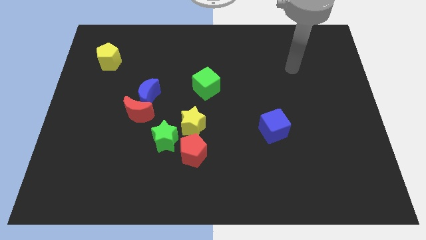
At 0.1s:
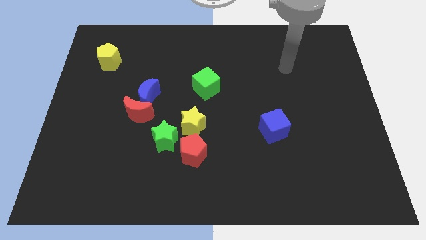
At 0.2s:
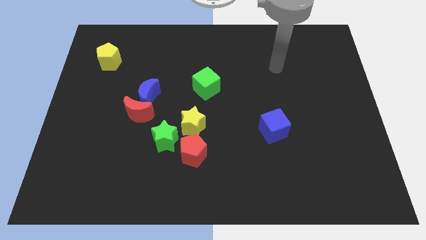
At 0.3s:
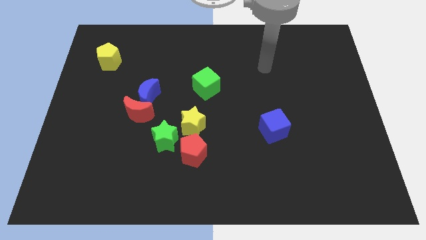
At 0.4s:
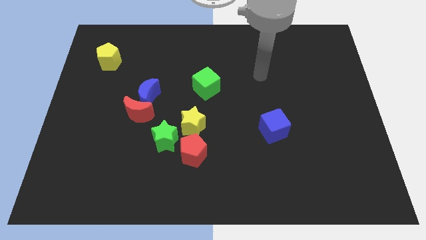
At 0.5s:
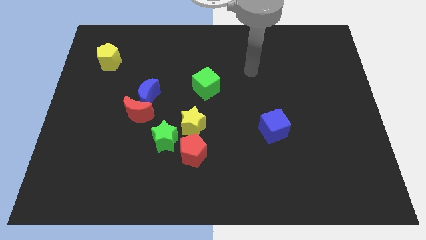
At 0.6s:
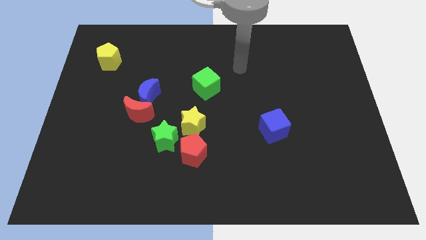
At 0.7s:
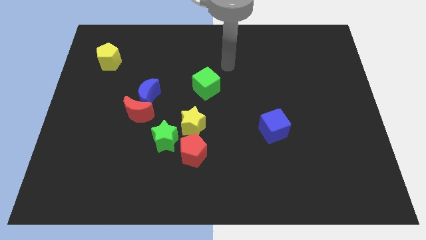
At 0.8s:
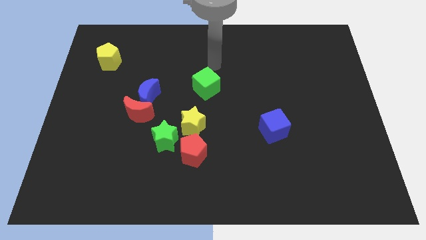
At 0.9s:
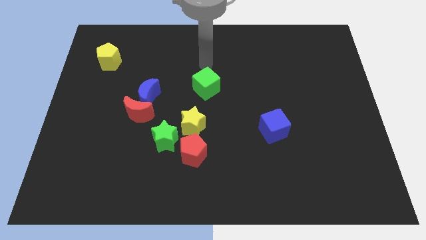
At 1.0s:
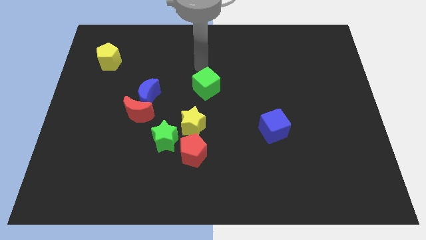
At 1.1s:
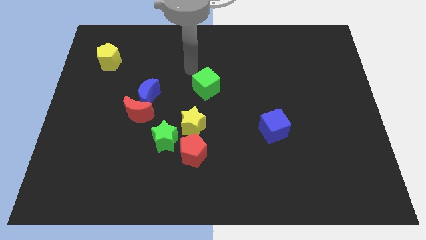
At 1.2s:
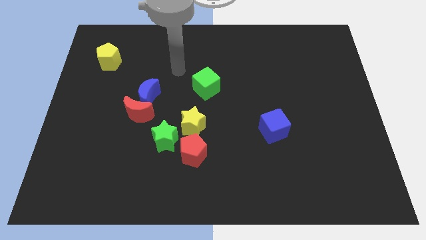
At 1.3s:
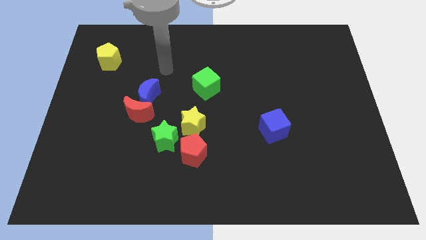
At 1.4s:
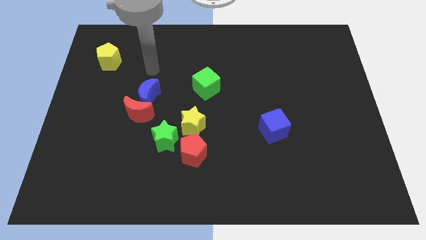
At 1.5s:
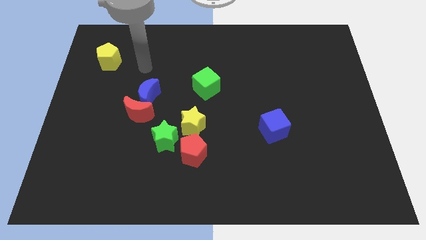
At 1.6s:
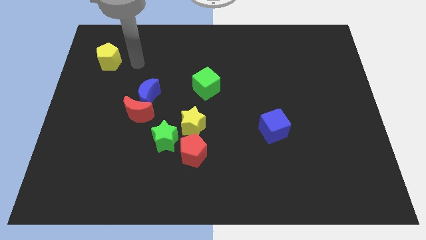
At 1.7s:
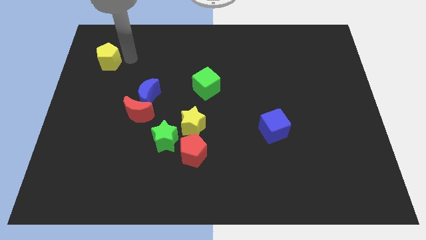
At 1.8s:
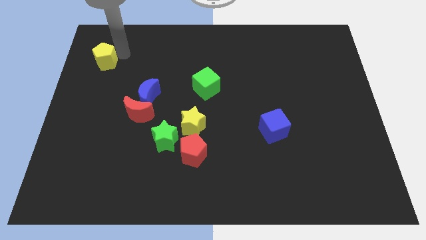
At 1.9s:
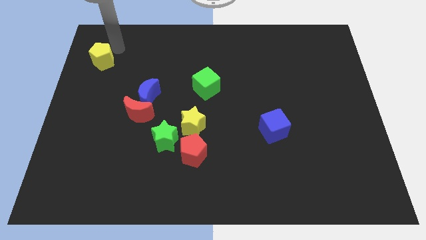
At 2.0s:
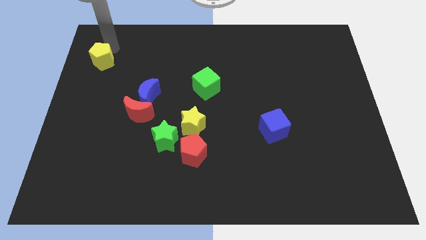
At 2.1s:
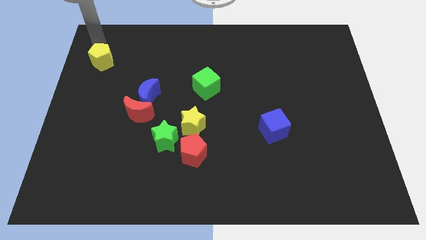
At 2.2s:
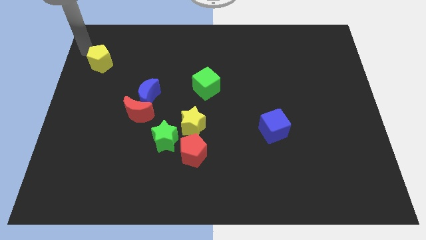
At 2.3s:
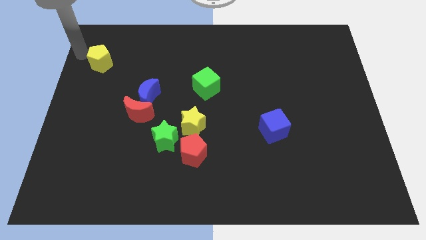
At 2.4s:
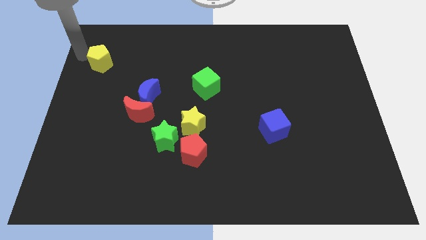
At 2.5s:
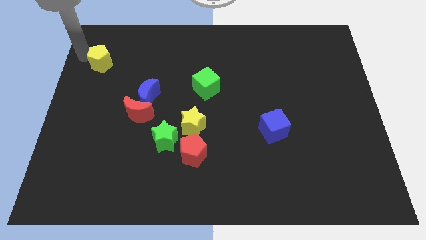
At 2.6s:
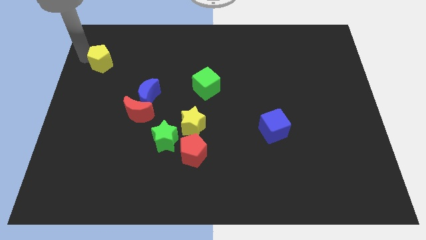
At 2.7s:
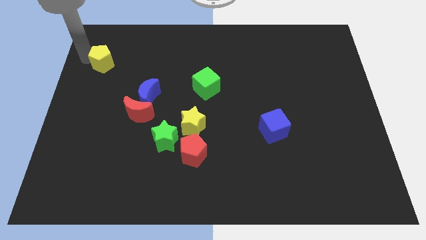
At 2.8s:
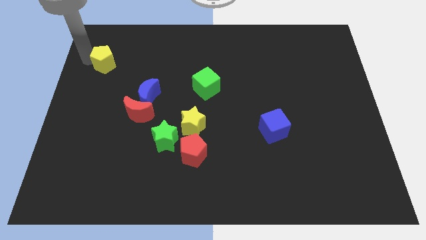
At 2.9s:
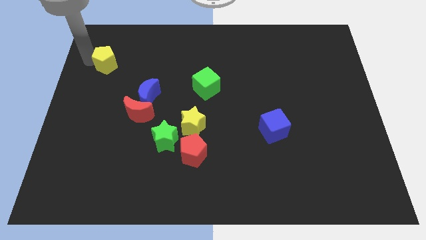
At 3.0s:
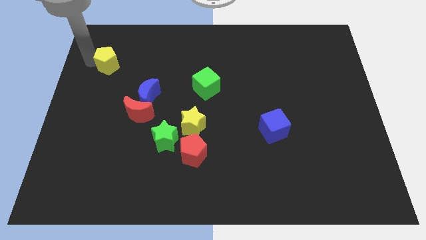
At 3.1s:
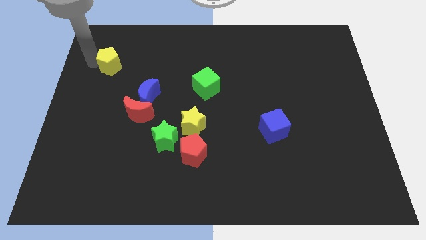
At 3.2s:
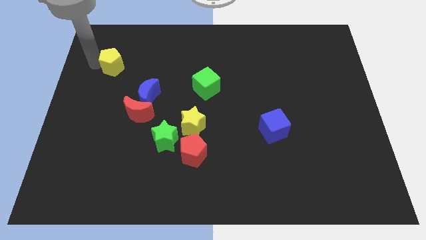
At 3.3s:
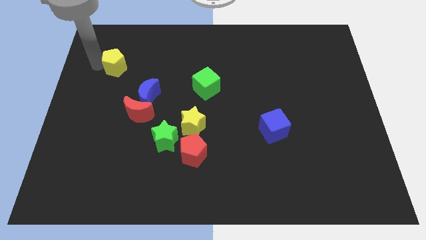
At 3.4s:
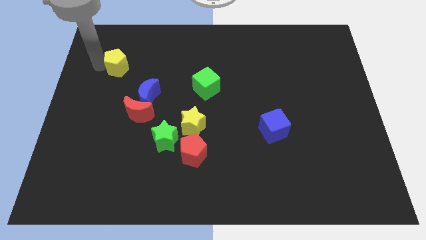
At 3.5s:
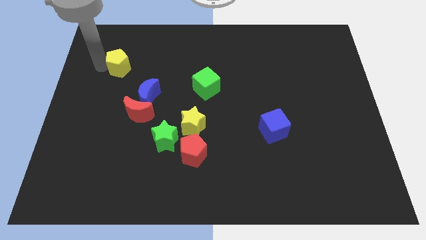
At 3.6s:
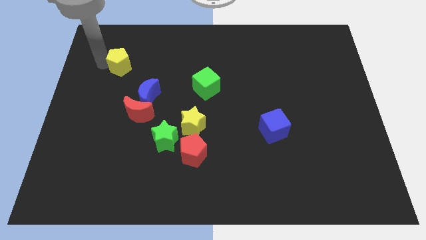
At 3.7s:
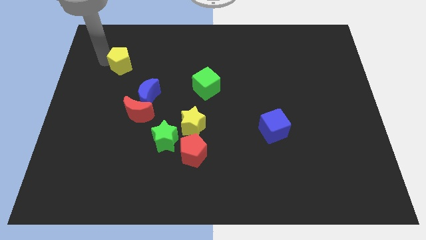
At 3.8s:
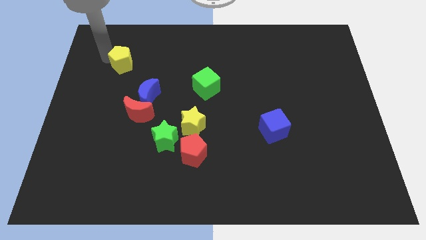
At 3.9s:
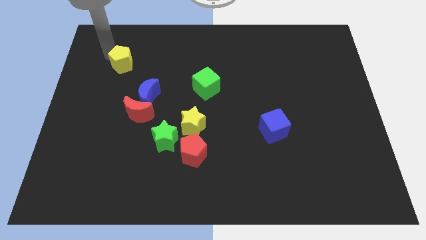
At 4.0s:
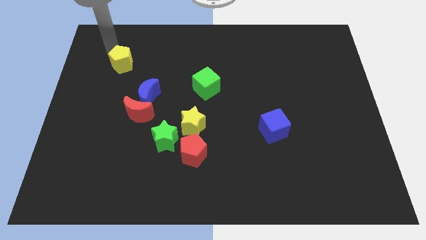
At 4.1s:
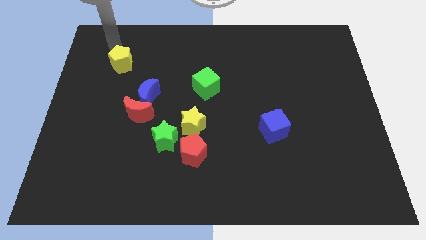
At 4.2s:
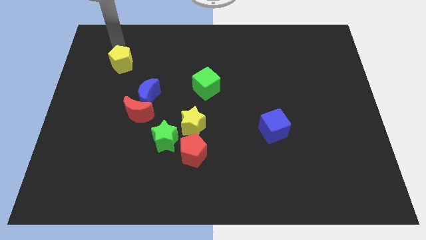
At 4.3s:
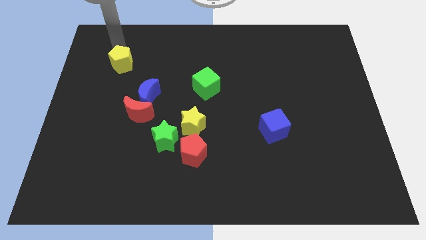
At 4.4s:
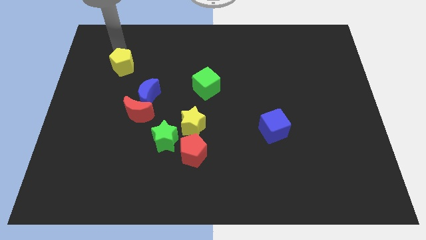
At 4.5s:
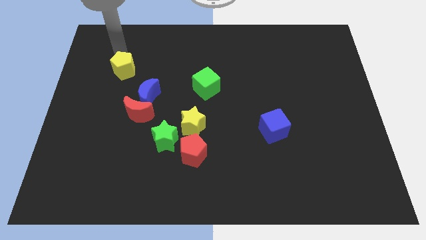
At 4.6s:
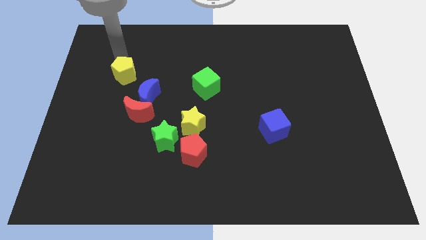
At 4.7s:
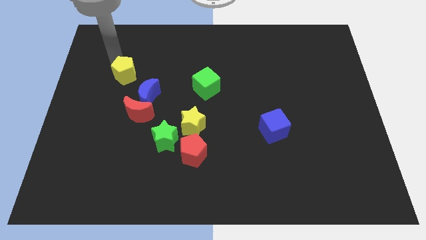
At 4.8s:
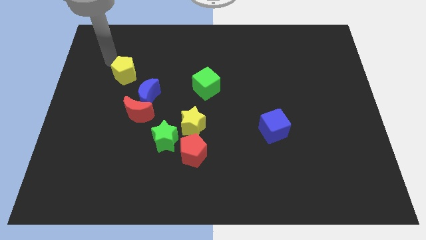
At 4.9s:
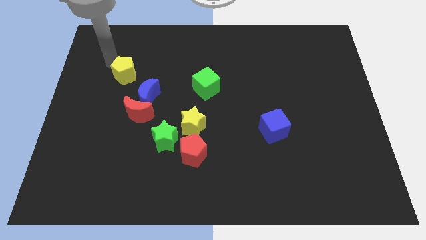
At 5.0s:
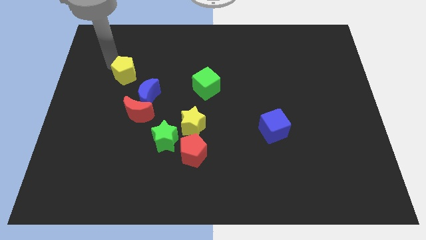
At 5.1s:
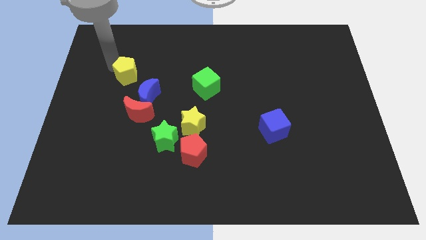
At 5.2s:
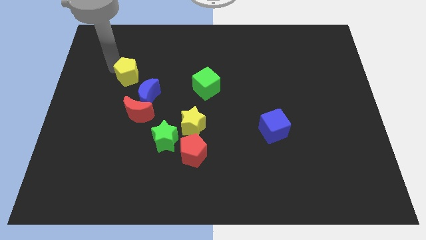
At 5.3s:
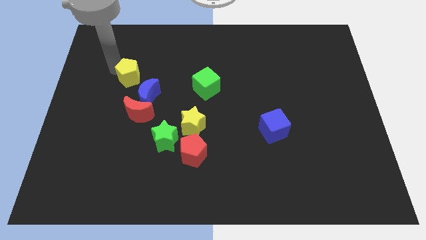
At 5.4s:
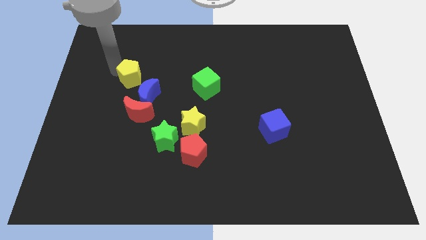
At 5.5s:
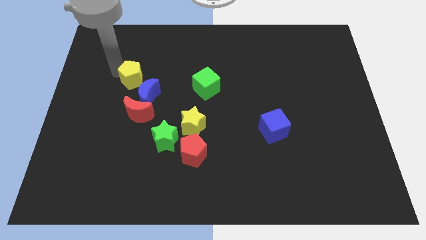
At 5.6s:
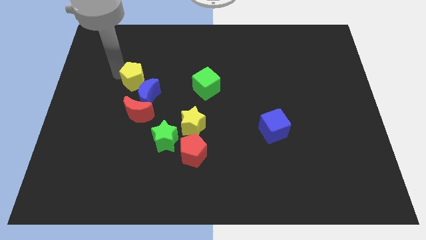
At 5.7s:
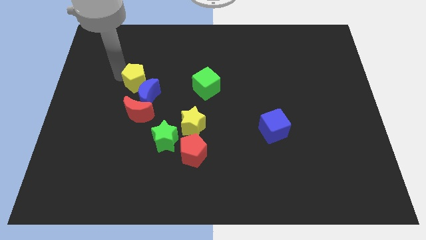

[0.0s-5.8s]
move the yellow pentagon close to the blue moon
